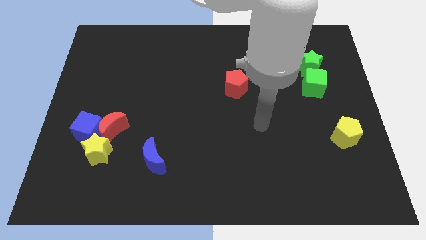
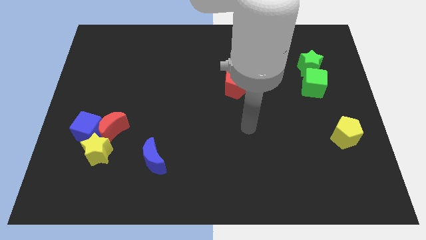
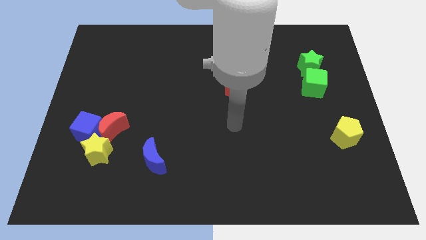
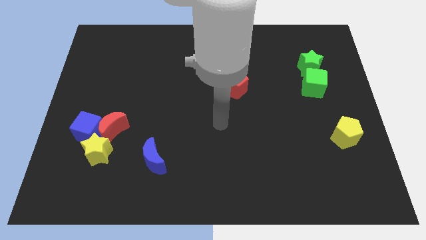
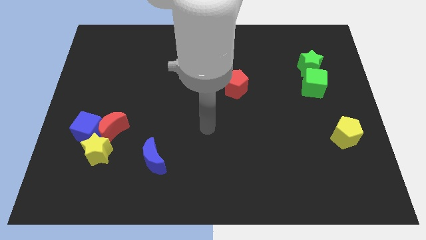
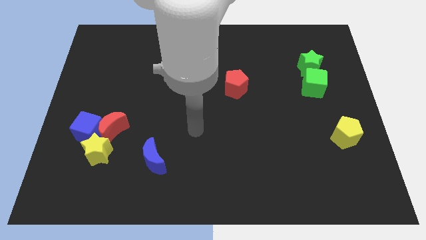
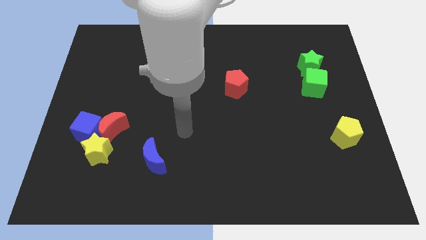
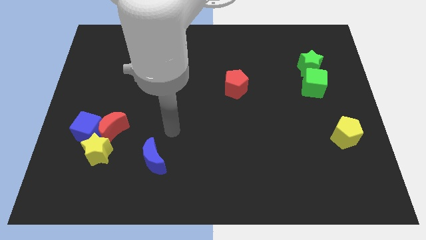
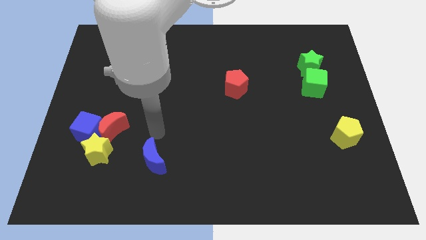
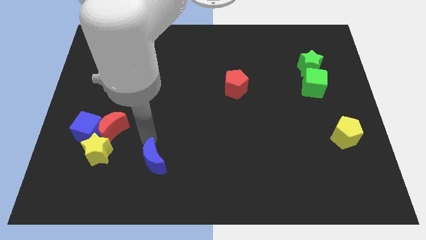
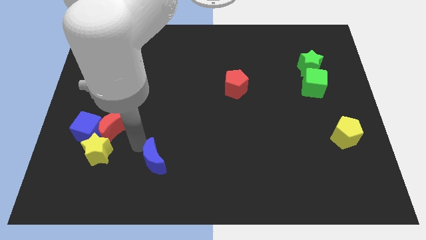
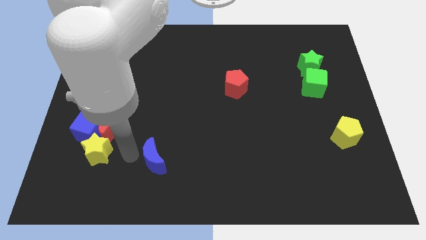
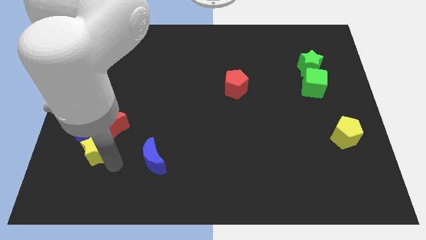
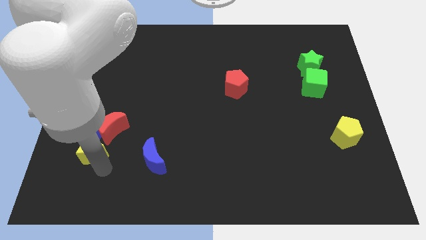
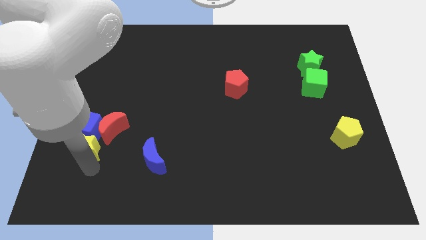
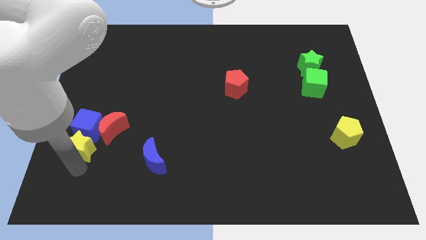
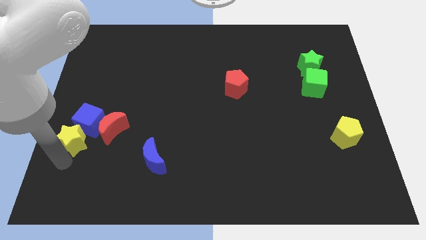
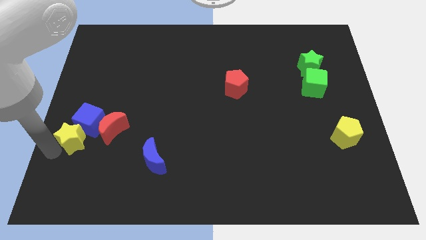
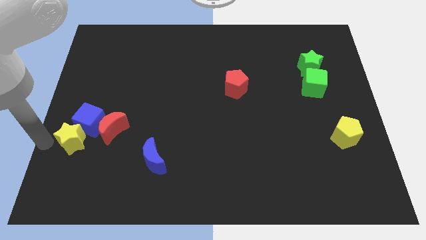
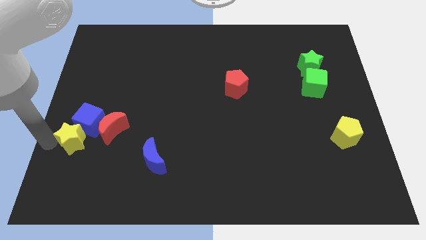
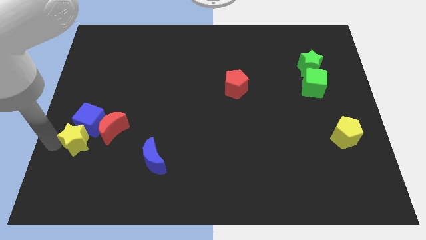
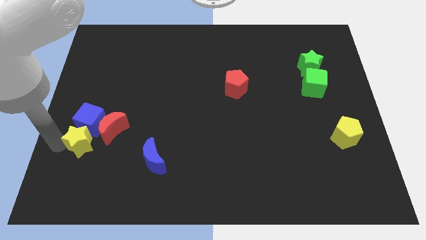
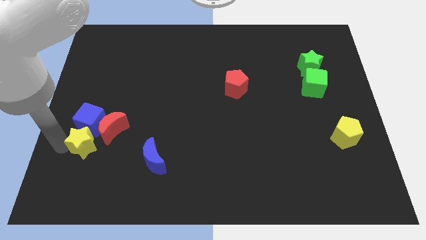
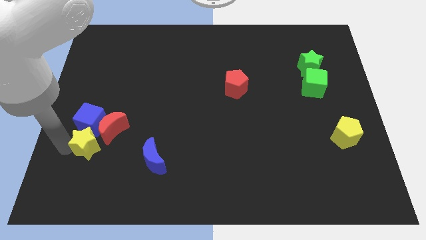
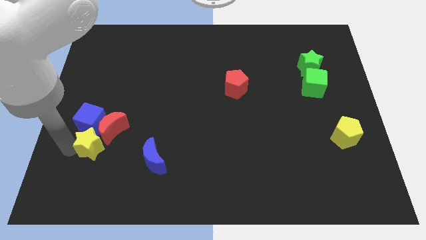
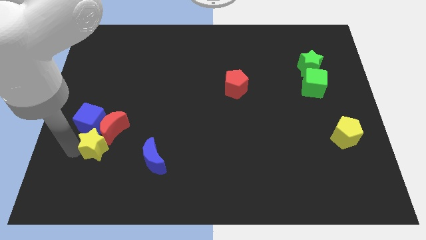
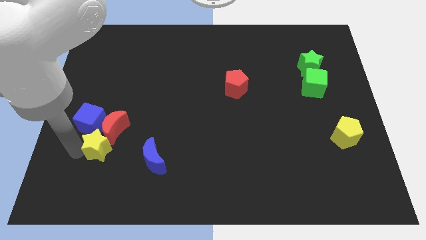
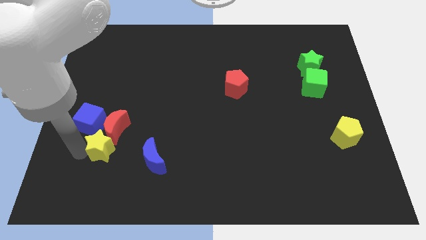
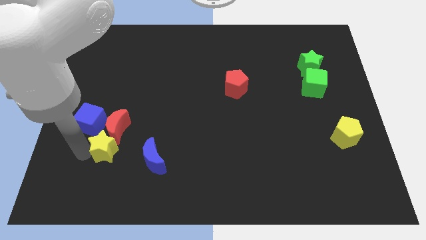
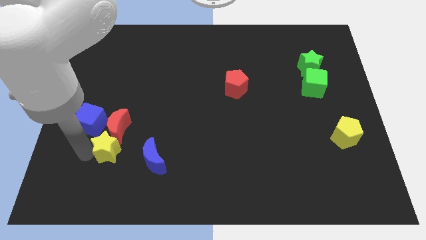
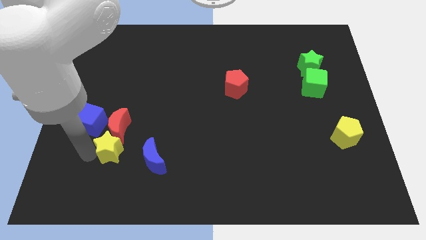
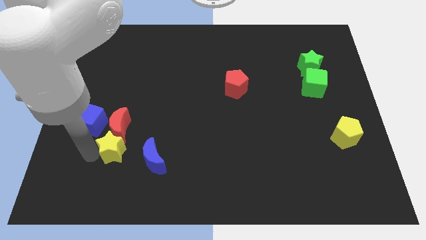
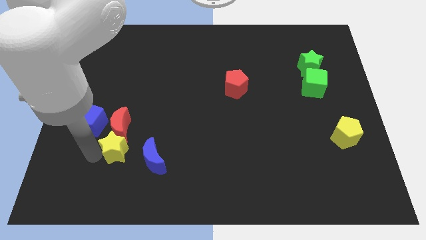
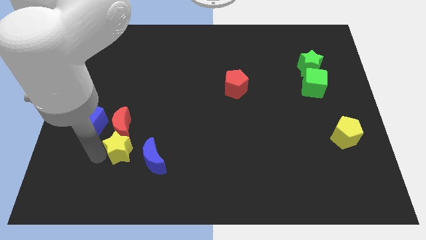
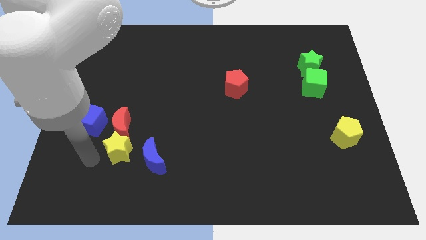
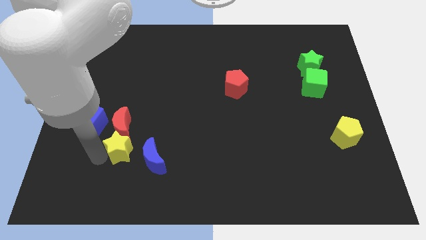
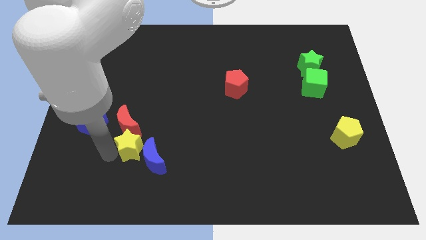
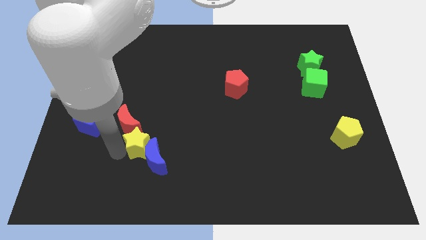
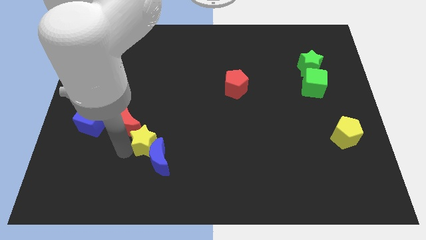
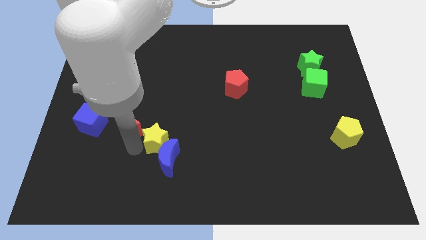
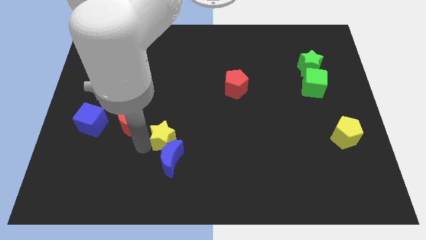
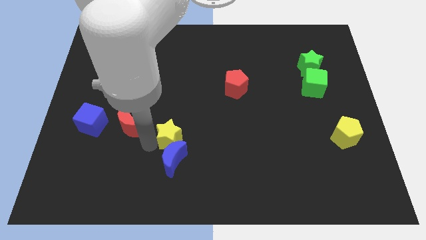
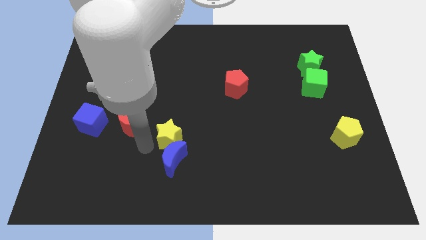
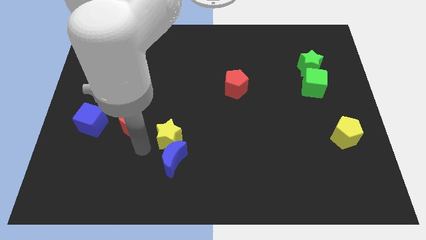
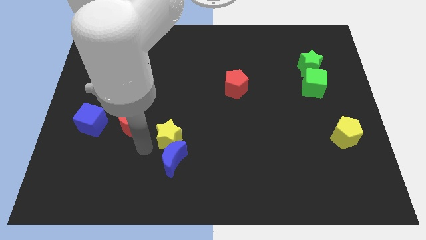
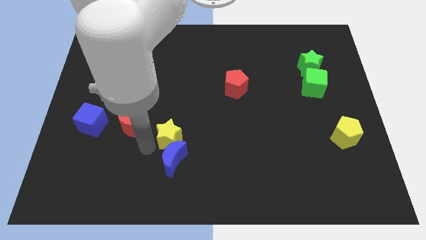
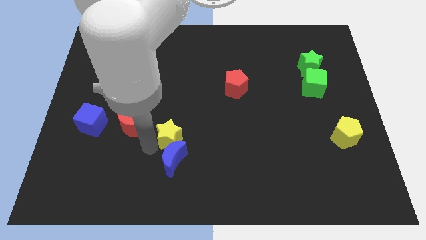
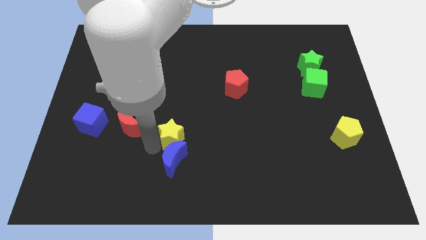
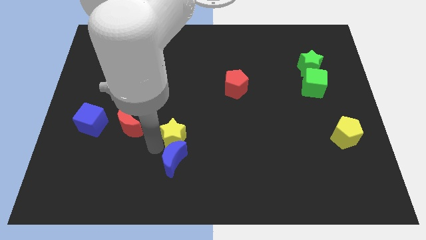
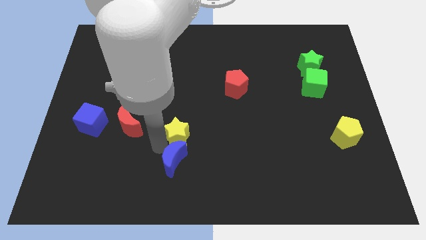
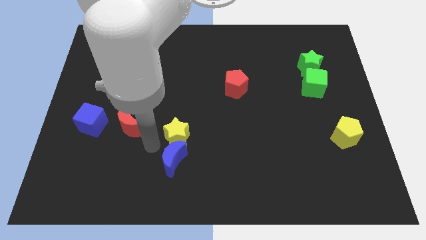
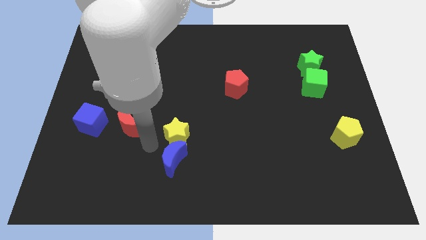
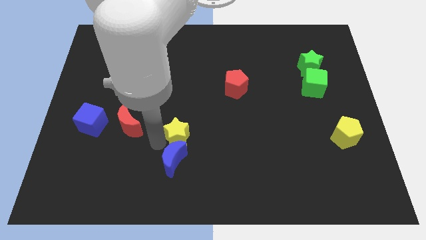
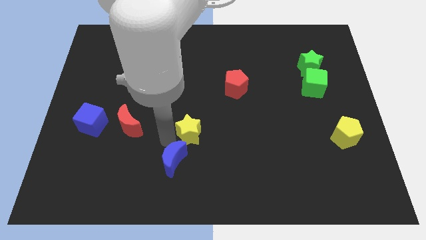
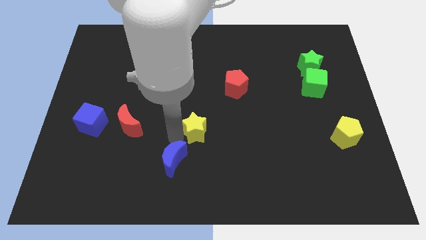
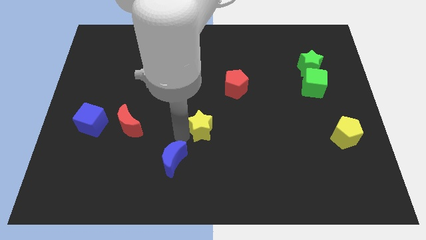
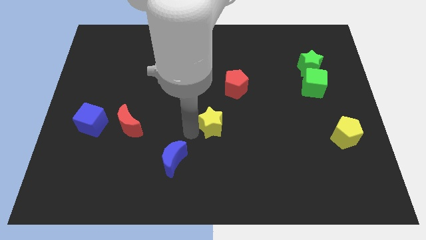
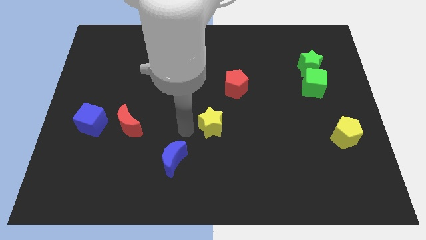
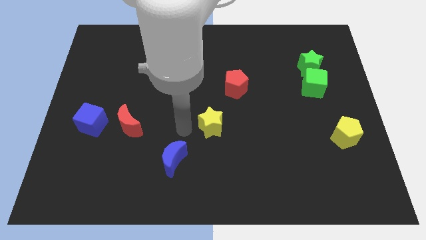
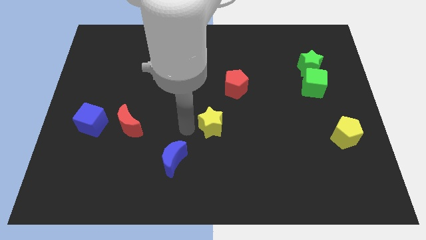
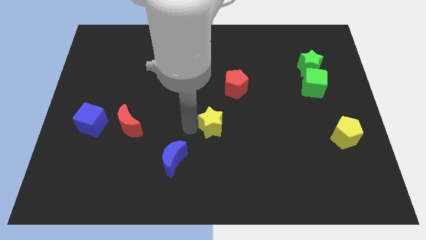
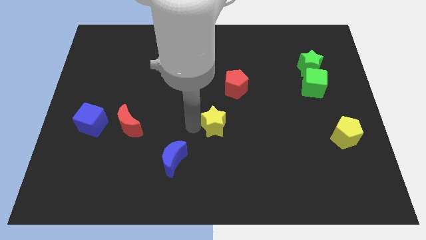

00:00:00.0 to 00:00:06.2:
slide the yellow star to the bottom of the red pentagon

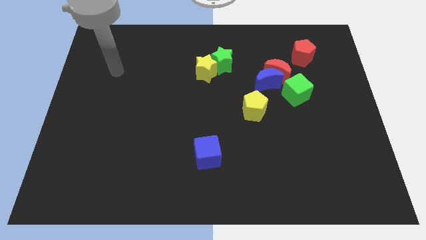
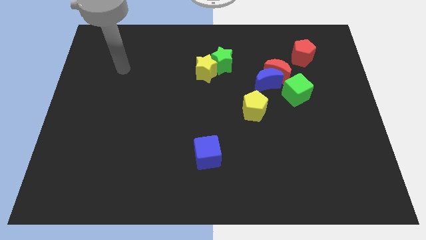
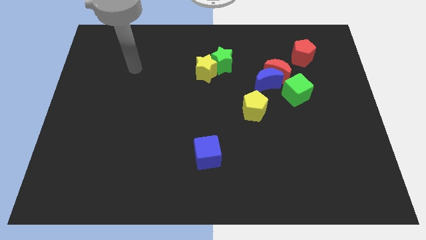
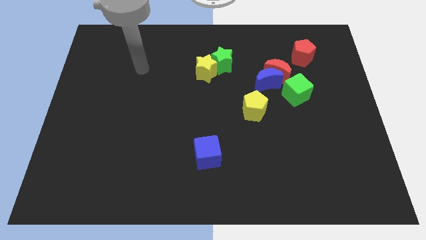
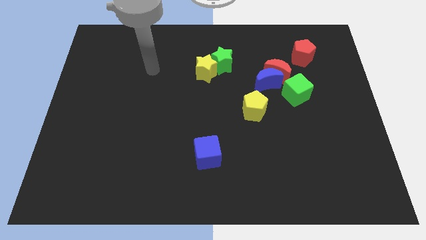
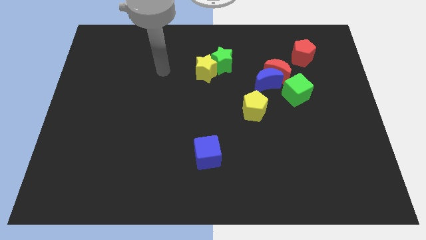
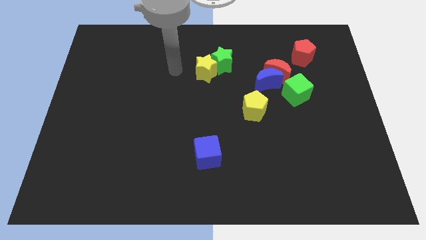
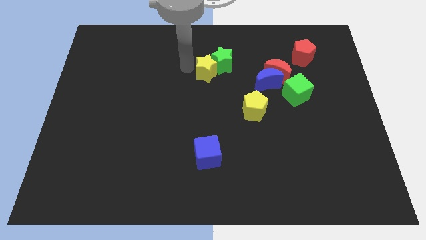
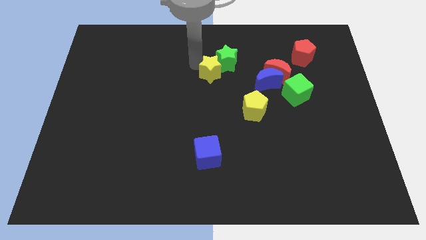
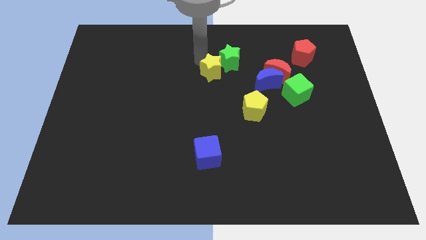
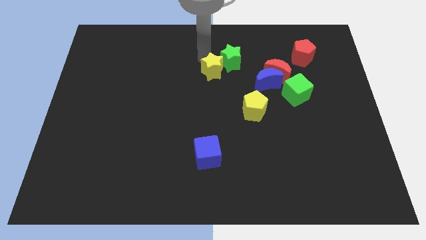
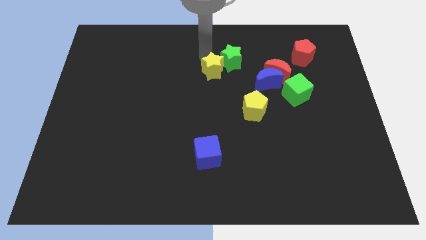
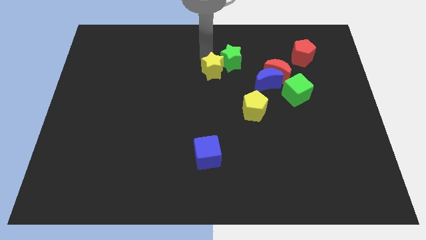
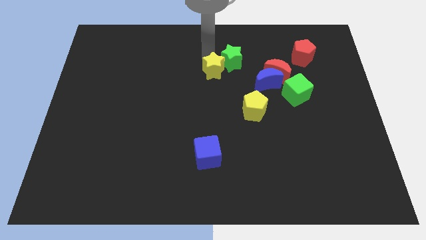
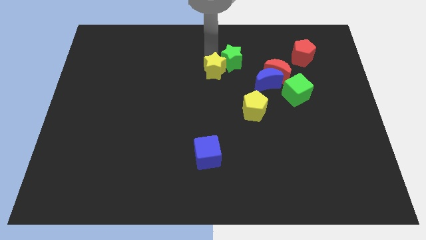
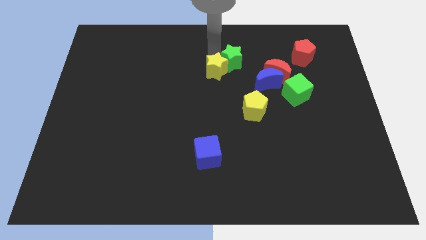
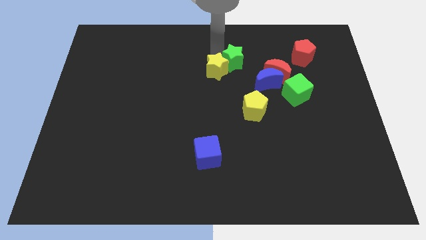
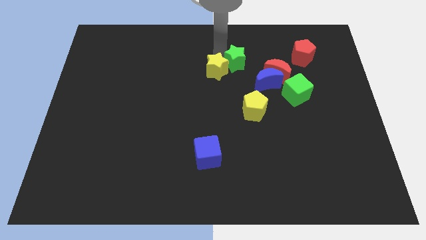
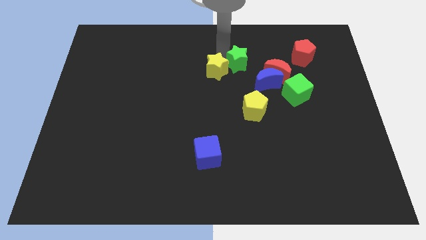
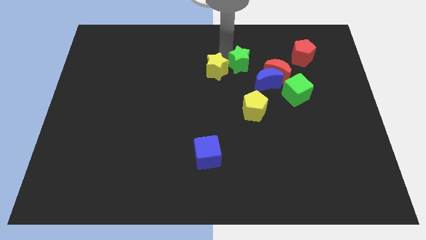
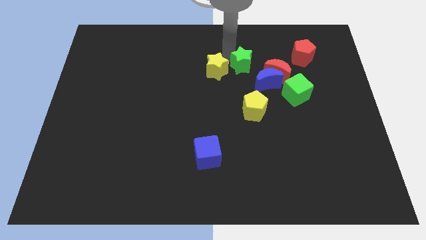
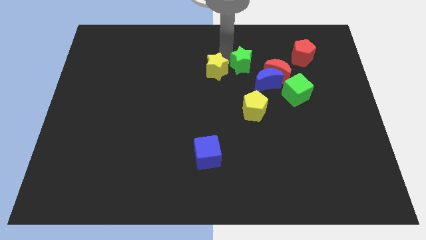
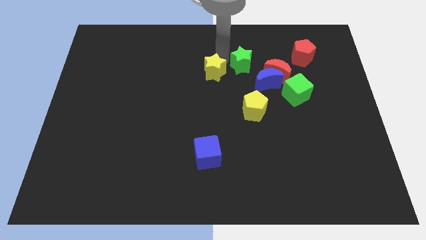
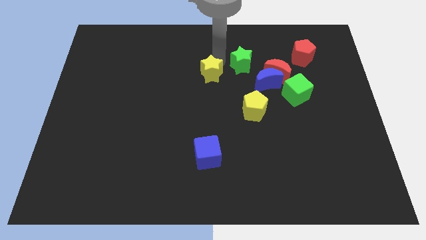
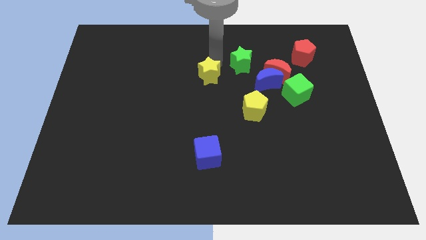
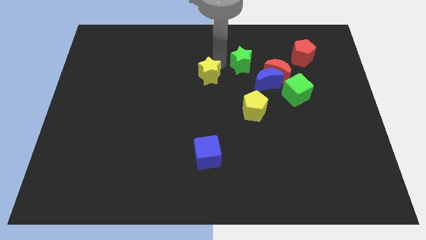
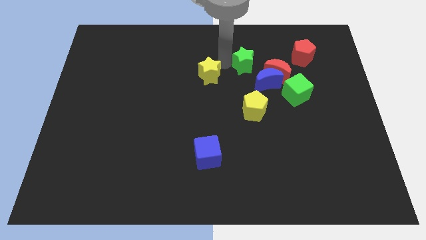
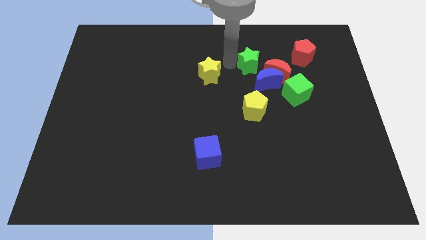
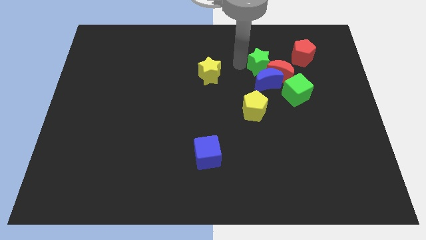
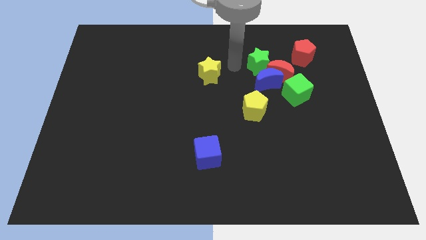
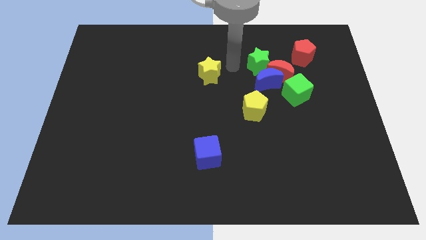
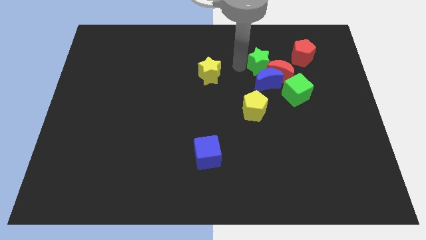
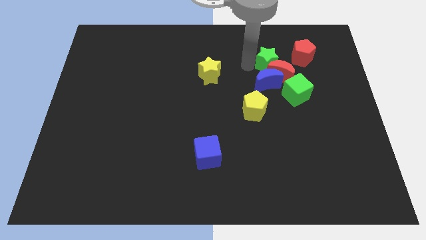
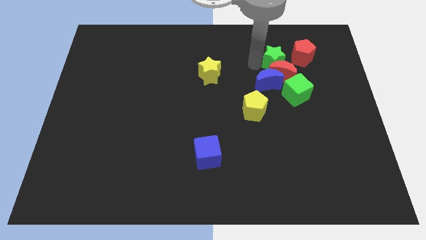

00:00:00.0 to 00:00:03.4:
slide the green star to the top side of the green cube
